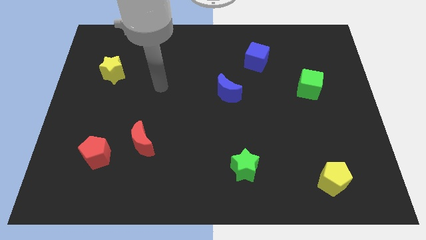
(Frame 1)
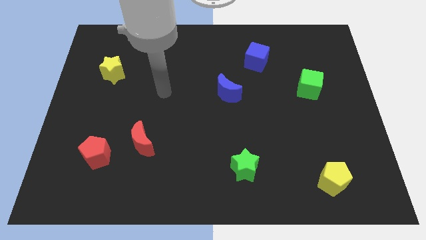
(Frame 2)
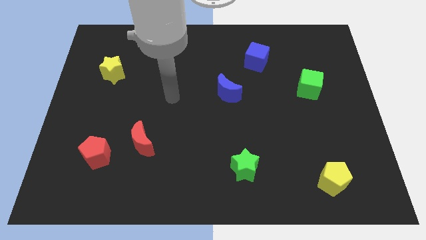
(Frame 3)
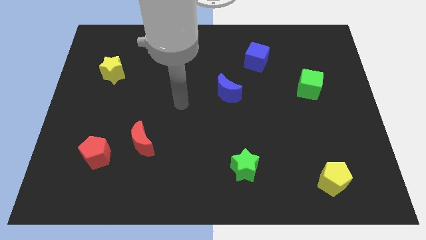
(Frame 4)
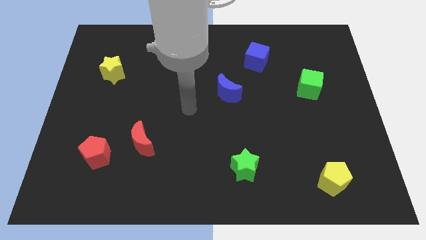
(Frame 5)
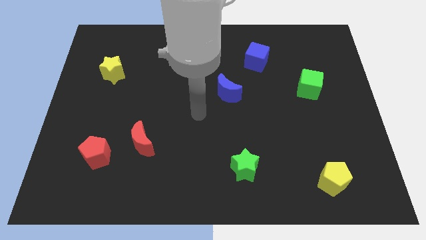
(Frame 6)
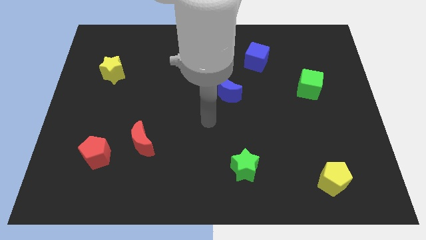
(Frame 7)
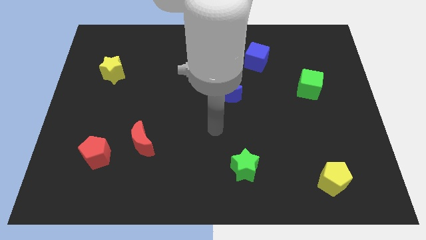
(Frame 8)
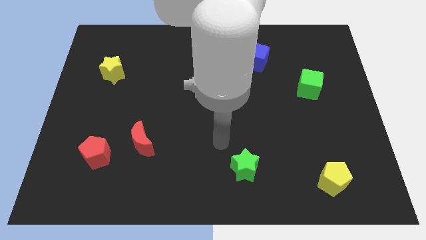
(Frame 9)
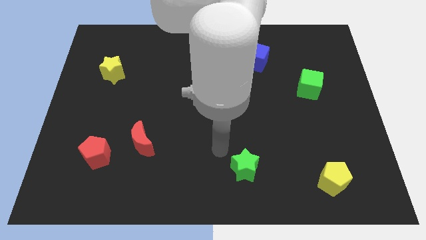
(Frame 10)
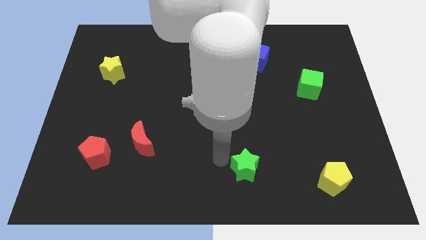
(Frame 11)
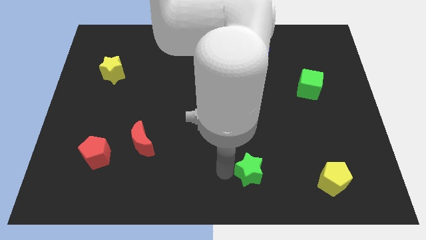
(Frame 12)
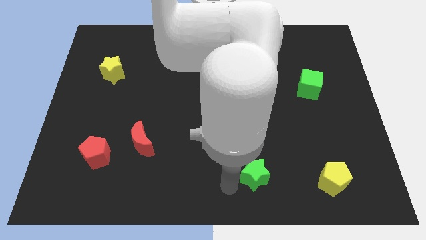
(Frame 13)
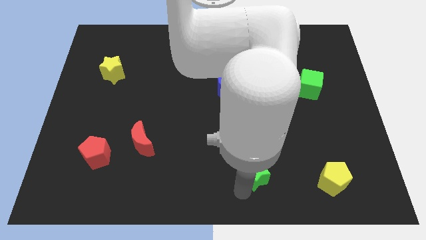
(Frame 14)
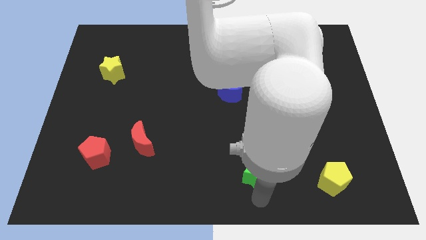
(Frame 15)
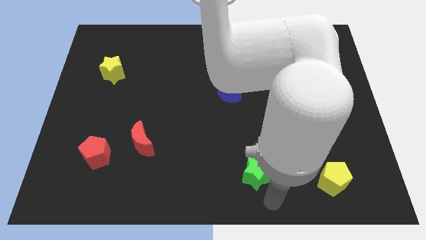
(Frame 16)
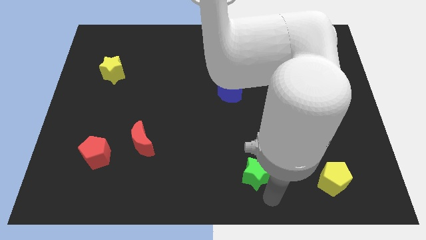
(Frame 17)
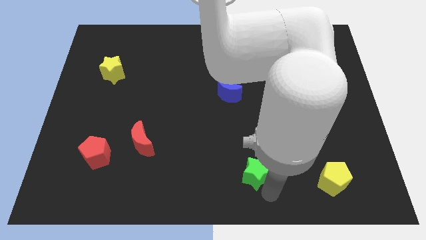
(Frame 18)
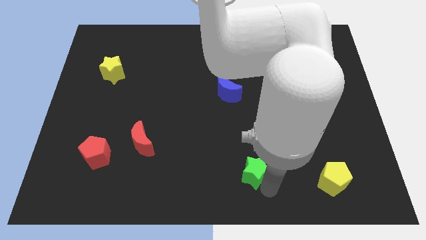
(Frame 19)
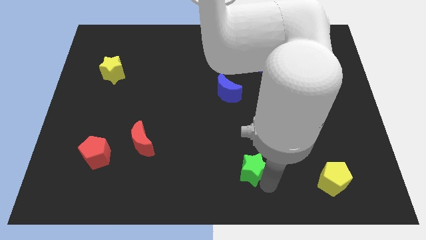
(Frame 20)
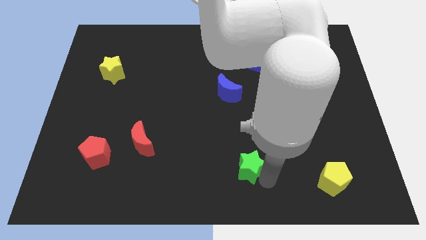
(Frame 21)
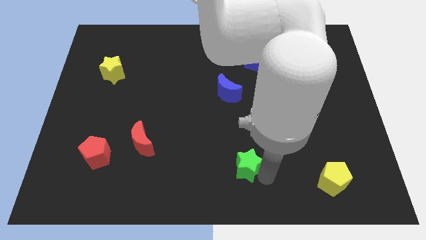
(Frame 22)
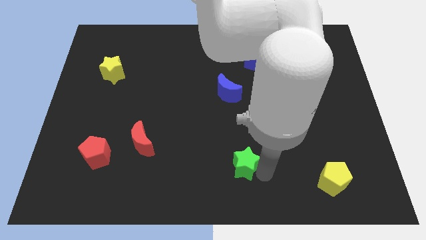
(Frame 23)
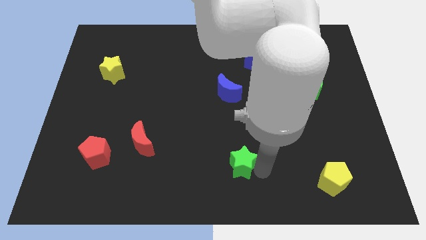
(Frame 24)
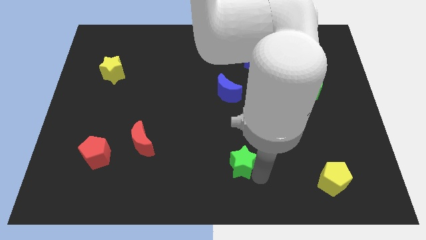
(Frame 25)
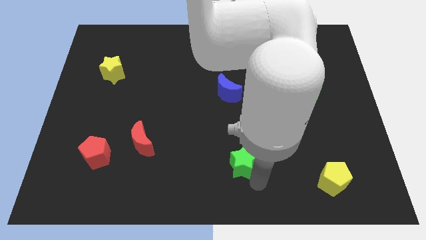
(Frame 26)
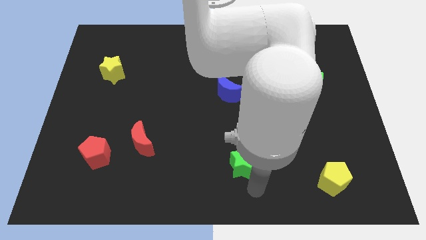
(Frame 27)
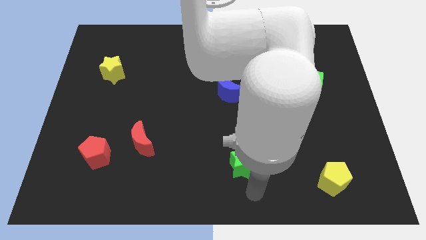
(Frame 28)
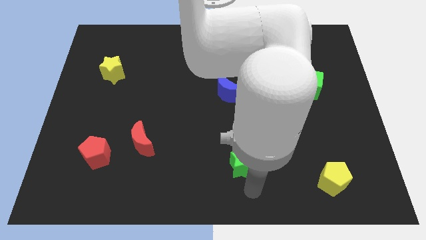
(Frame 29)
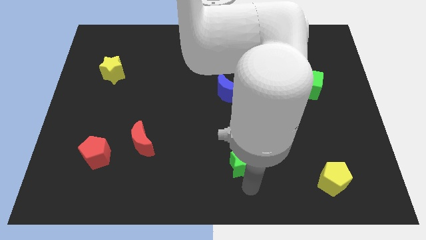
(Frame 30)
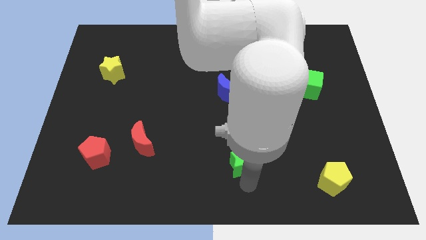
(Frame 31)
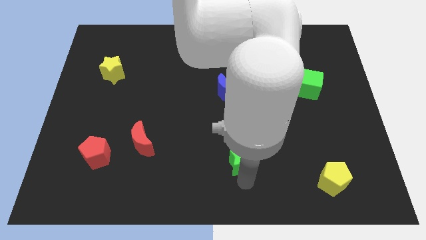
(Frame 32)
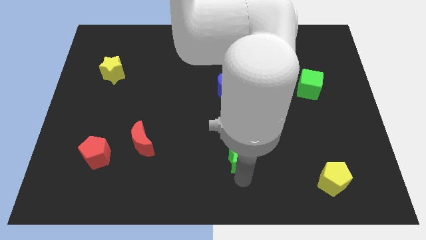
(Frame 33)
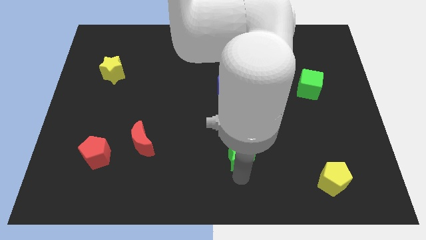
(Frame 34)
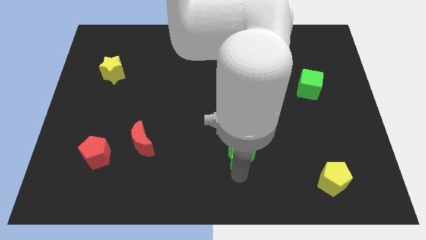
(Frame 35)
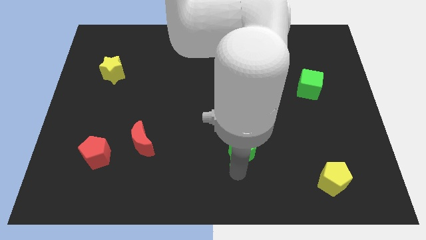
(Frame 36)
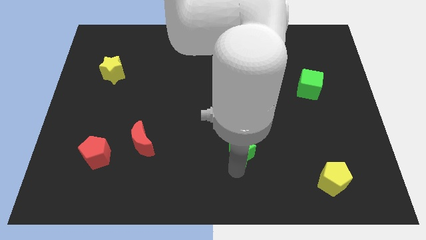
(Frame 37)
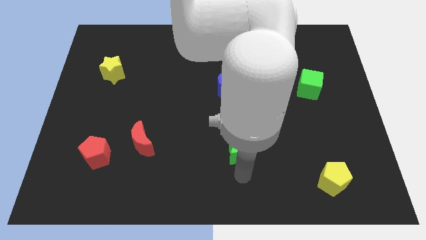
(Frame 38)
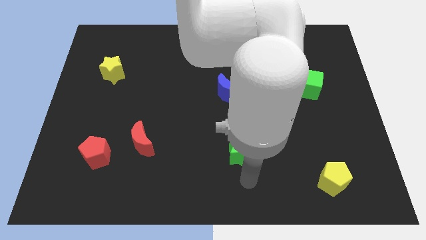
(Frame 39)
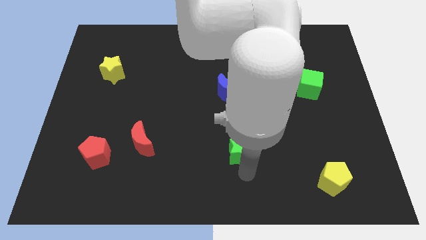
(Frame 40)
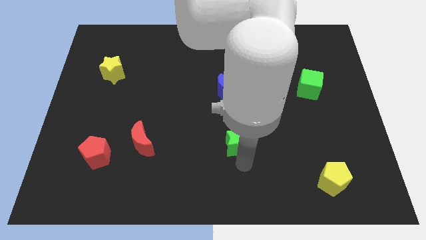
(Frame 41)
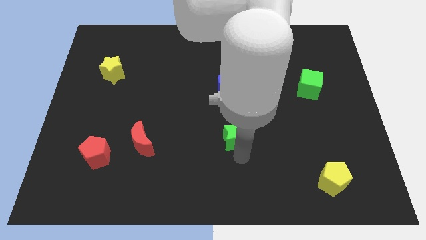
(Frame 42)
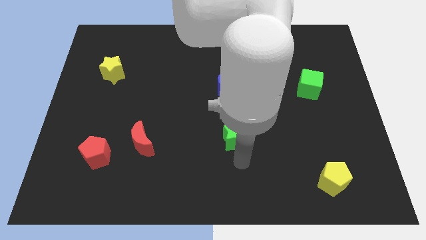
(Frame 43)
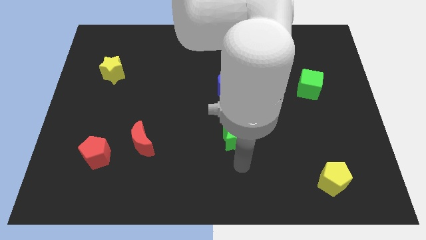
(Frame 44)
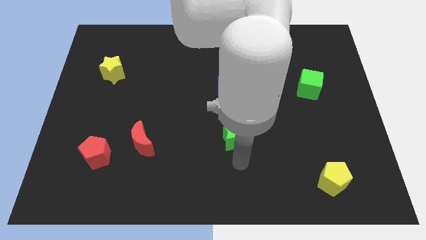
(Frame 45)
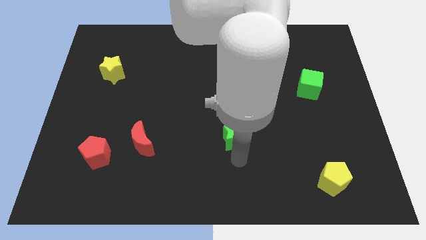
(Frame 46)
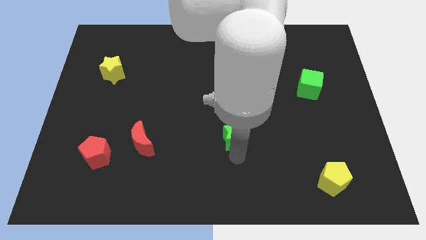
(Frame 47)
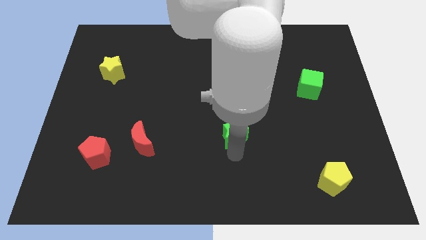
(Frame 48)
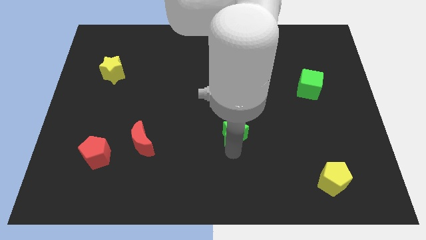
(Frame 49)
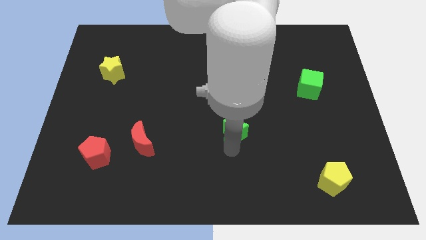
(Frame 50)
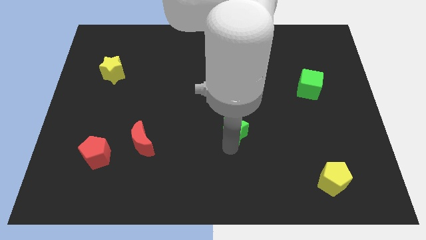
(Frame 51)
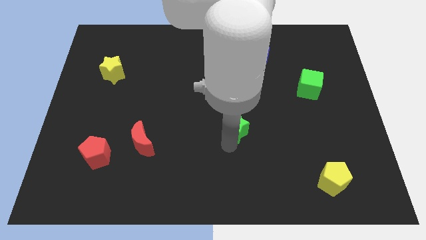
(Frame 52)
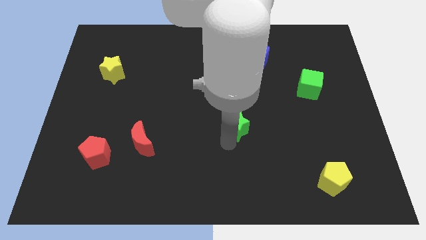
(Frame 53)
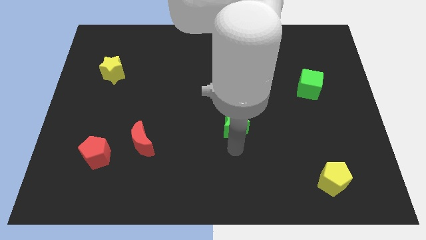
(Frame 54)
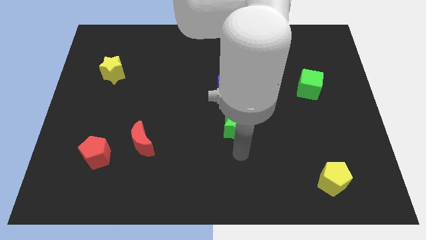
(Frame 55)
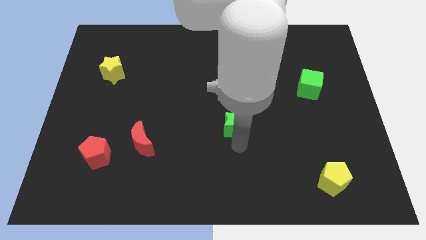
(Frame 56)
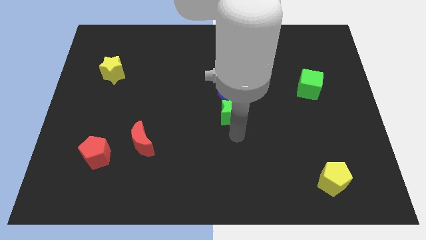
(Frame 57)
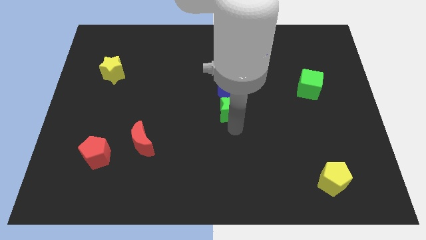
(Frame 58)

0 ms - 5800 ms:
move the green star towards the blue moon

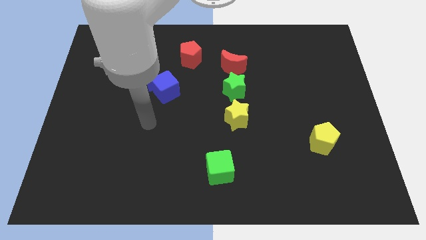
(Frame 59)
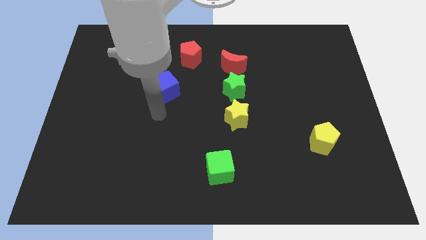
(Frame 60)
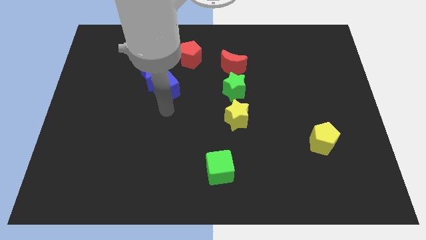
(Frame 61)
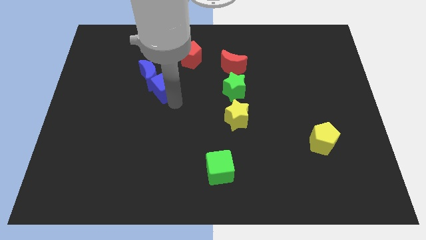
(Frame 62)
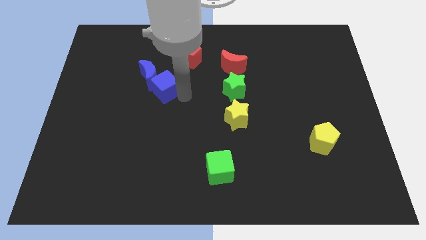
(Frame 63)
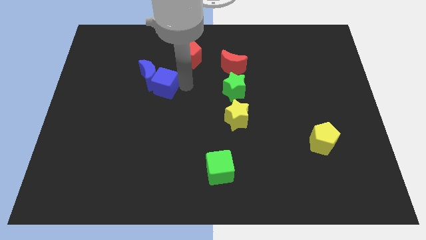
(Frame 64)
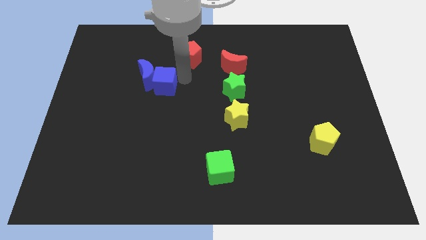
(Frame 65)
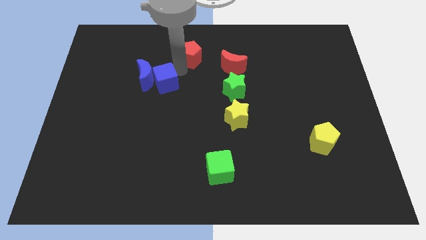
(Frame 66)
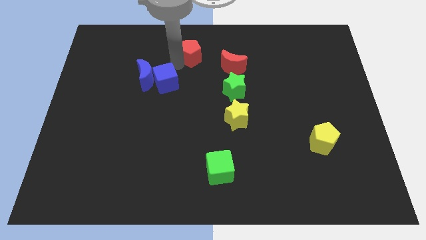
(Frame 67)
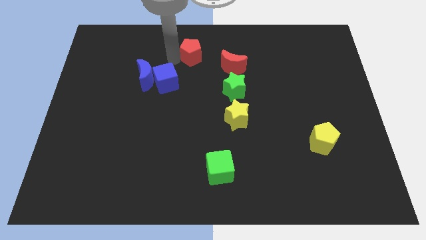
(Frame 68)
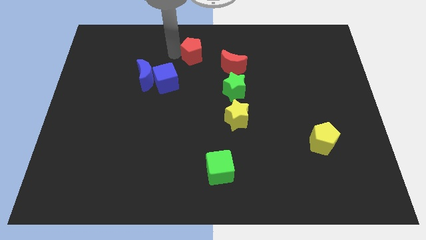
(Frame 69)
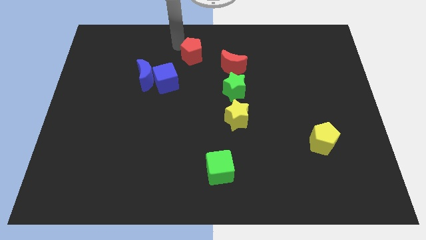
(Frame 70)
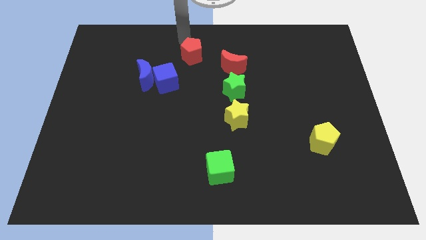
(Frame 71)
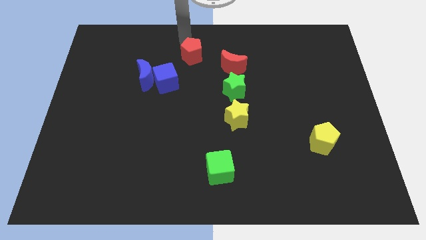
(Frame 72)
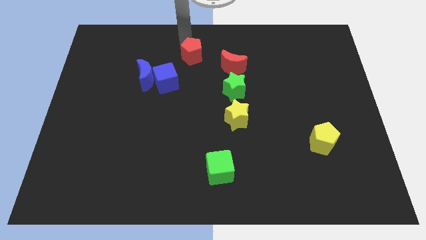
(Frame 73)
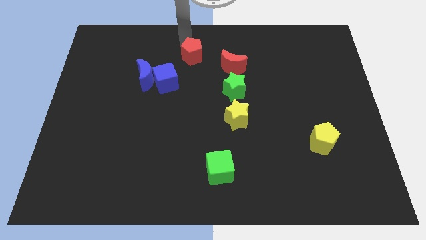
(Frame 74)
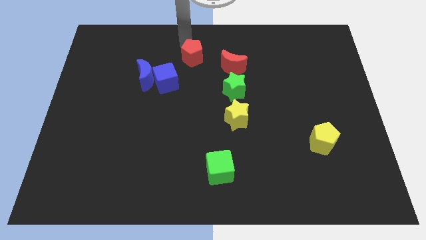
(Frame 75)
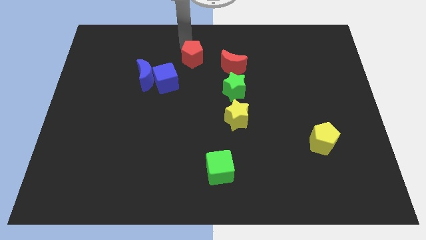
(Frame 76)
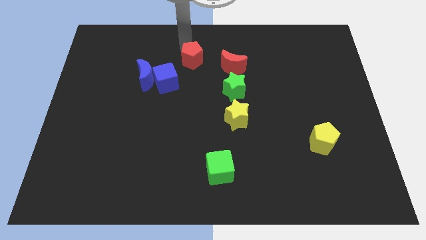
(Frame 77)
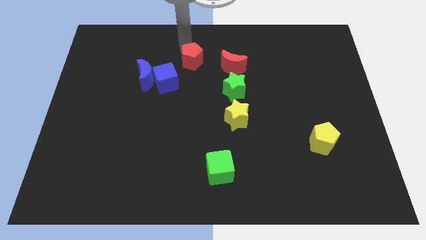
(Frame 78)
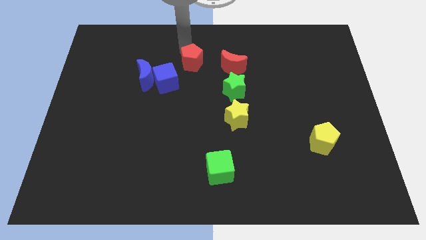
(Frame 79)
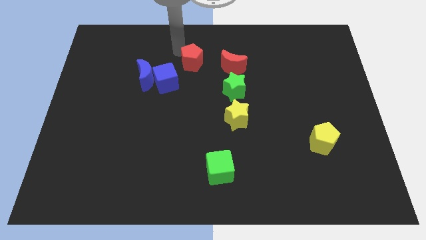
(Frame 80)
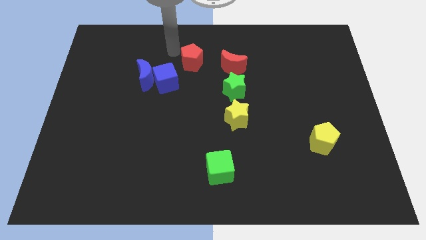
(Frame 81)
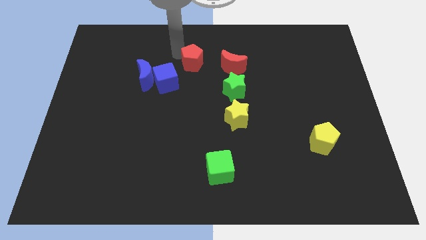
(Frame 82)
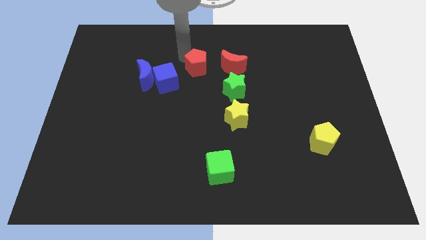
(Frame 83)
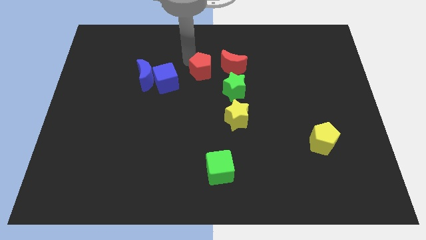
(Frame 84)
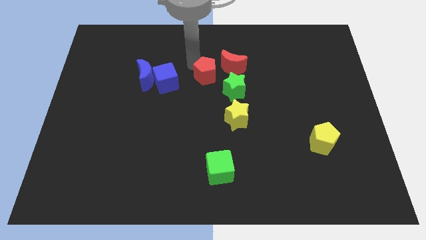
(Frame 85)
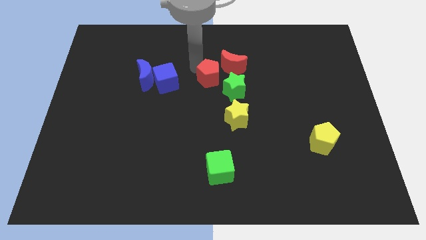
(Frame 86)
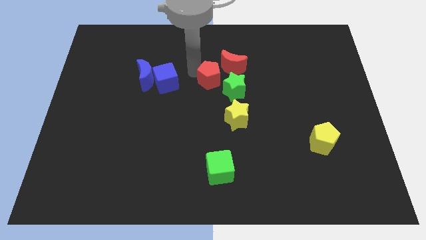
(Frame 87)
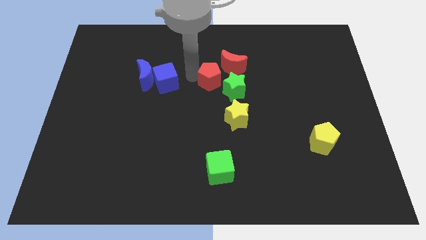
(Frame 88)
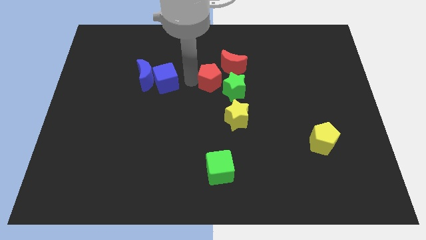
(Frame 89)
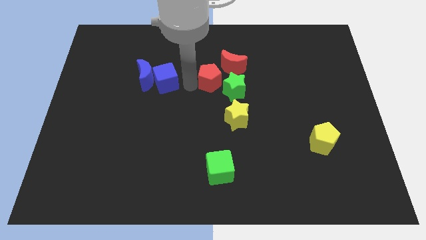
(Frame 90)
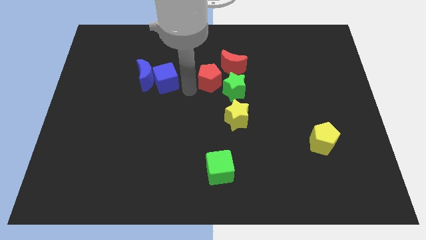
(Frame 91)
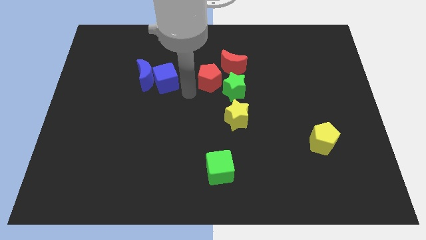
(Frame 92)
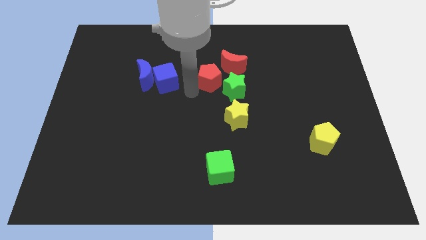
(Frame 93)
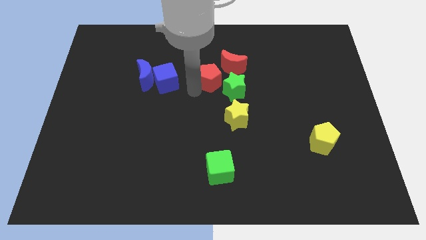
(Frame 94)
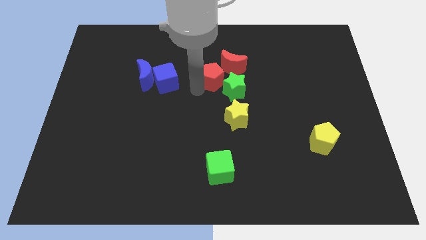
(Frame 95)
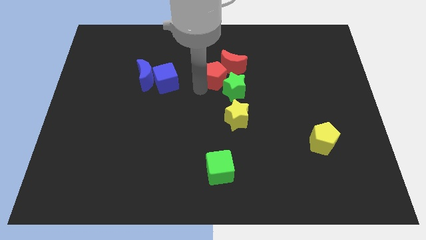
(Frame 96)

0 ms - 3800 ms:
push the red pentagon towards the red moon
